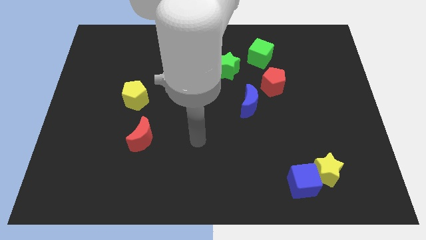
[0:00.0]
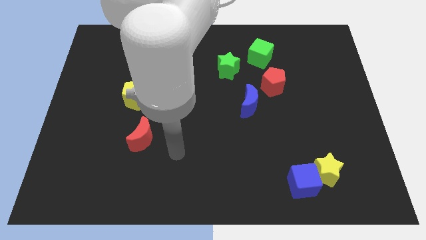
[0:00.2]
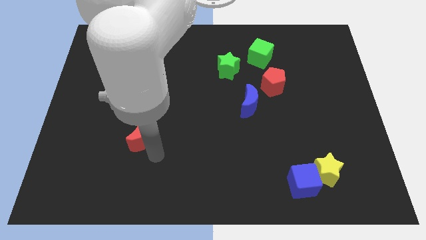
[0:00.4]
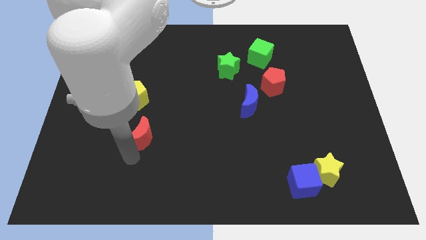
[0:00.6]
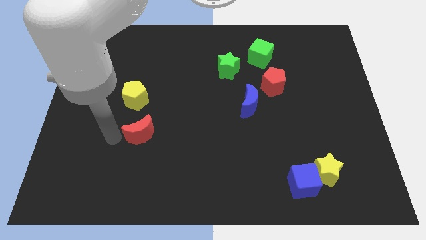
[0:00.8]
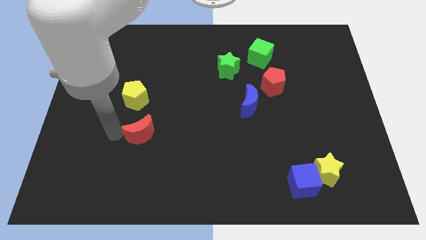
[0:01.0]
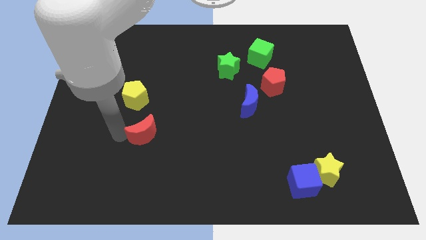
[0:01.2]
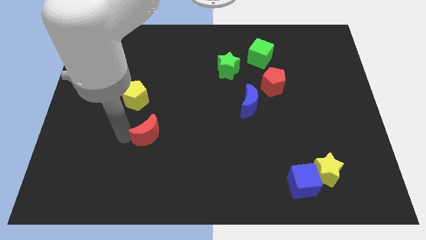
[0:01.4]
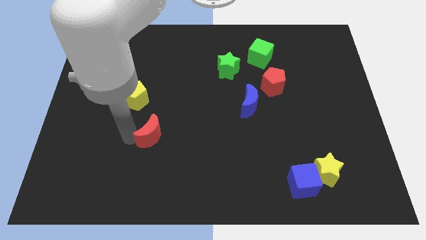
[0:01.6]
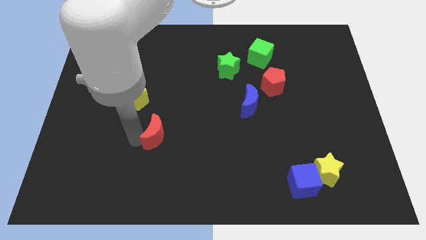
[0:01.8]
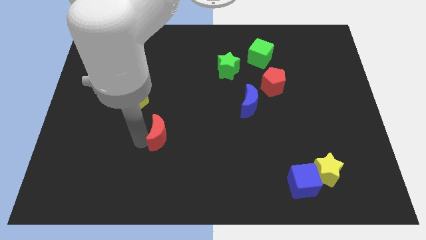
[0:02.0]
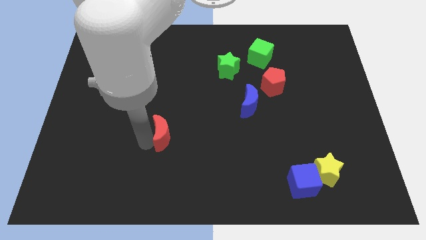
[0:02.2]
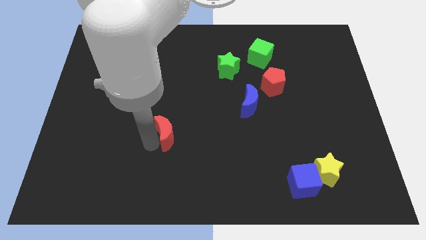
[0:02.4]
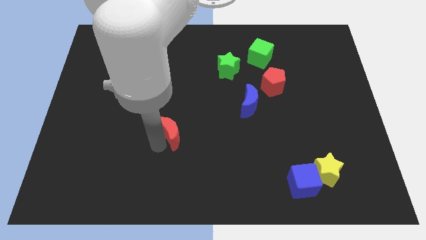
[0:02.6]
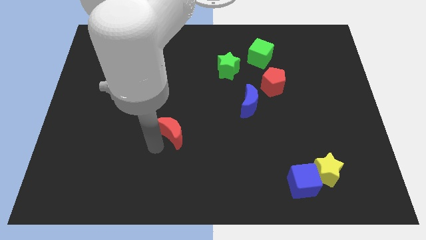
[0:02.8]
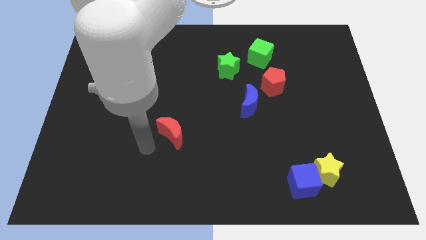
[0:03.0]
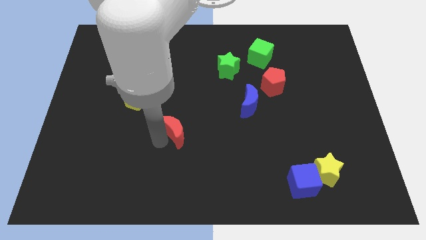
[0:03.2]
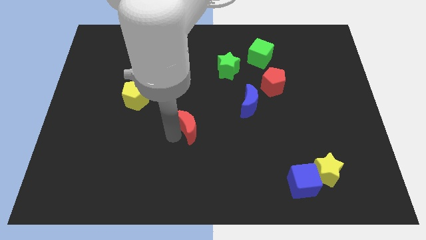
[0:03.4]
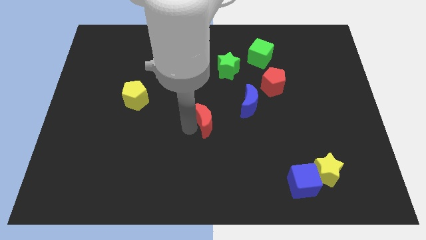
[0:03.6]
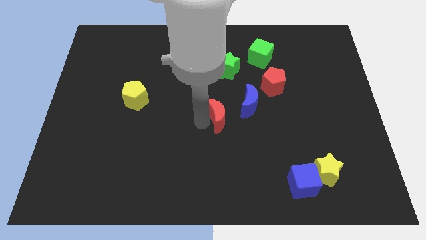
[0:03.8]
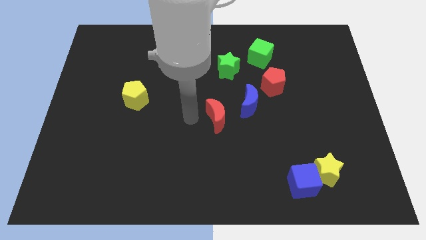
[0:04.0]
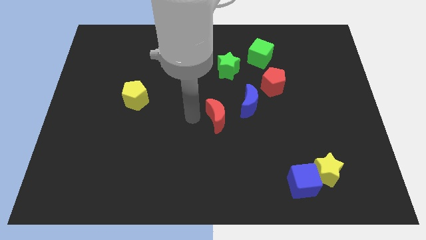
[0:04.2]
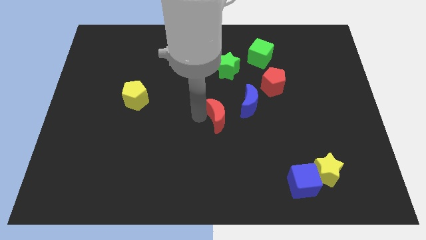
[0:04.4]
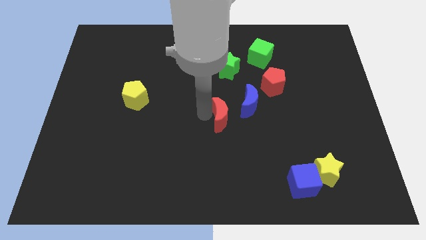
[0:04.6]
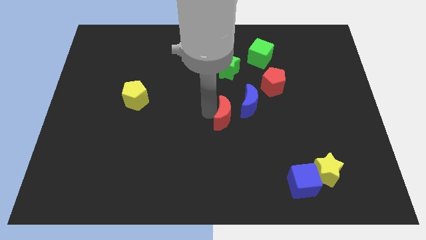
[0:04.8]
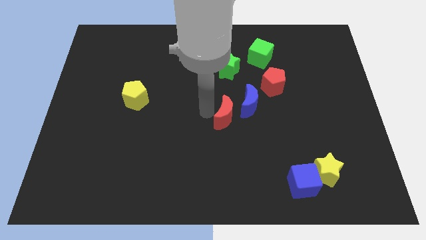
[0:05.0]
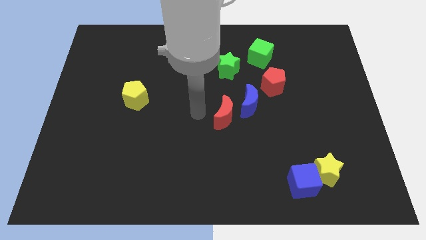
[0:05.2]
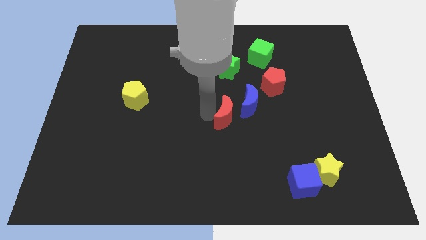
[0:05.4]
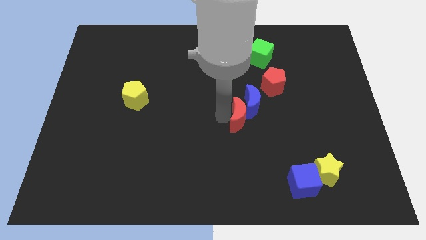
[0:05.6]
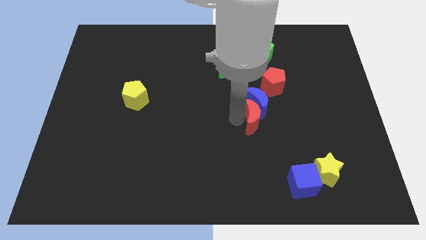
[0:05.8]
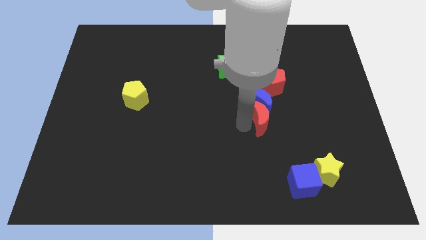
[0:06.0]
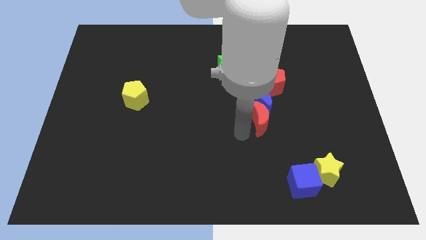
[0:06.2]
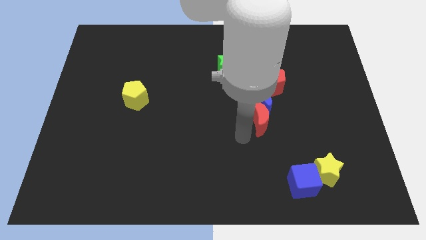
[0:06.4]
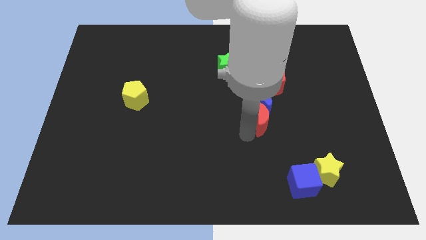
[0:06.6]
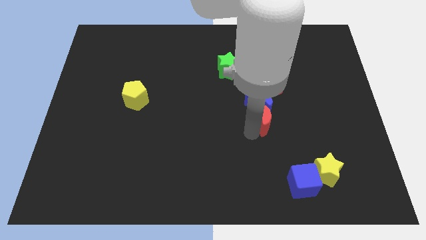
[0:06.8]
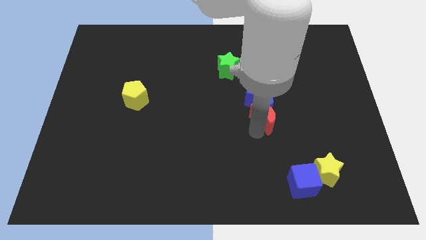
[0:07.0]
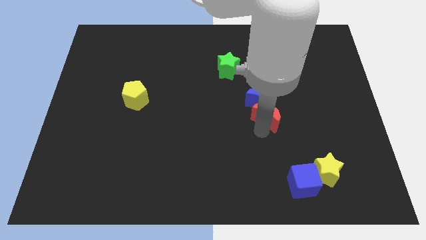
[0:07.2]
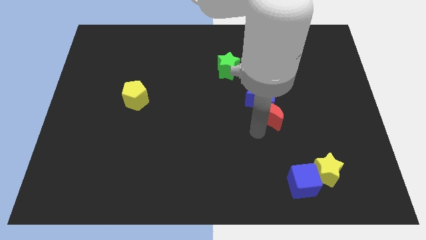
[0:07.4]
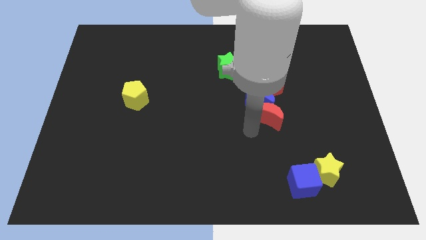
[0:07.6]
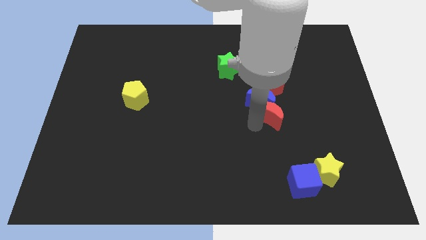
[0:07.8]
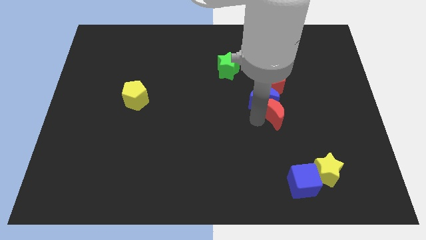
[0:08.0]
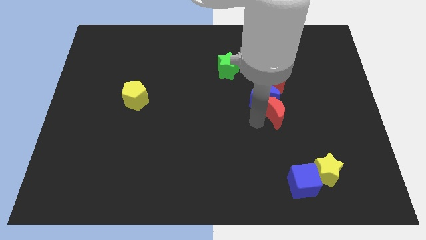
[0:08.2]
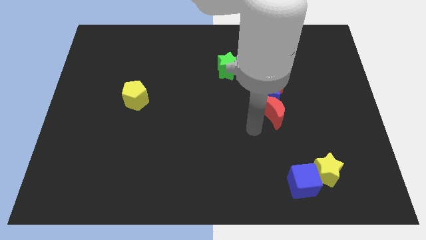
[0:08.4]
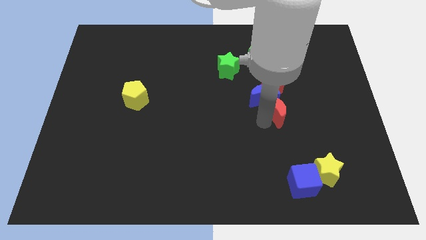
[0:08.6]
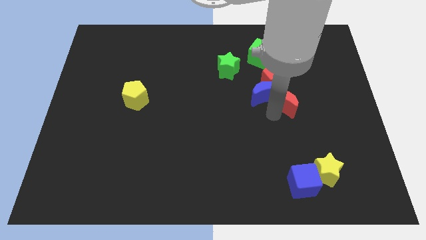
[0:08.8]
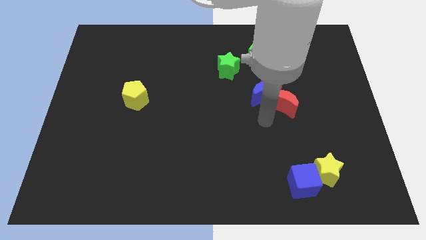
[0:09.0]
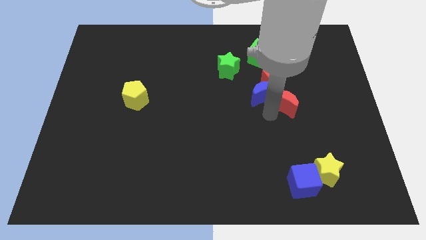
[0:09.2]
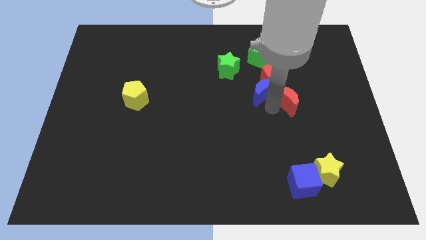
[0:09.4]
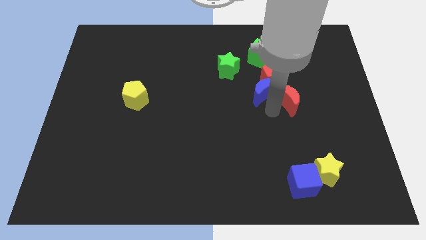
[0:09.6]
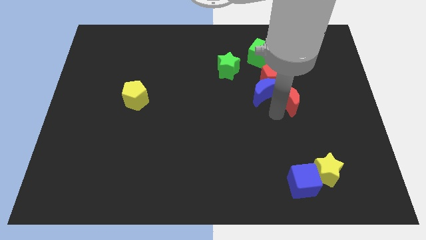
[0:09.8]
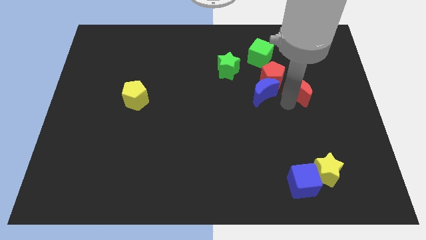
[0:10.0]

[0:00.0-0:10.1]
put the red moon to the right side of the red pentagon

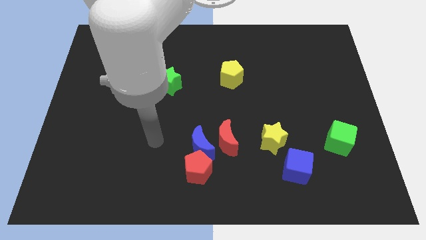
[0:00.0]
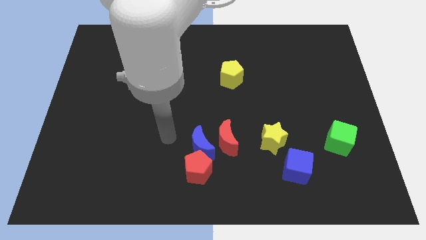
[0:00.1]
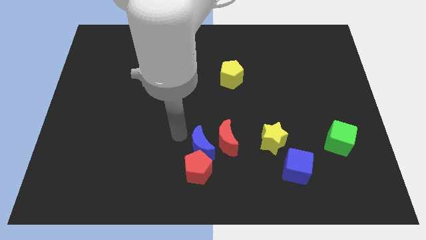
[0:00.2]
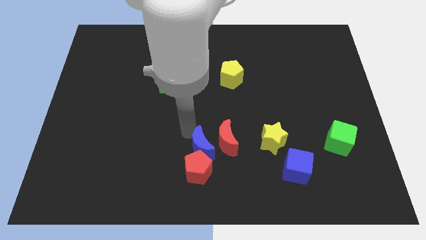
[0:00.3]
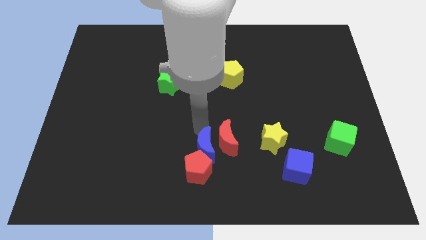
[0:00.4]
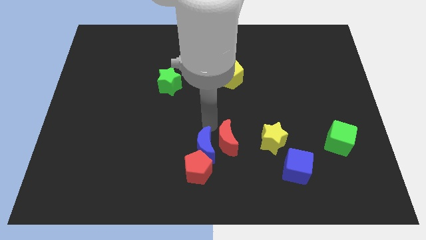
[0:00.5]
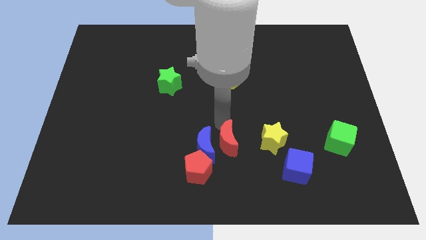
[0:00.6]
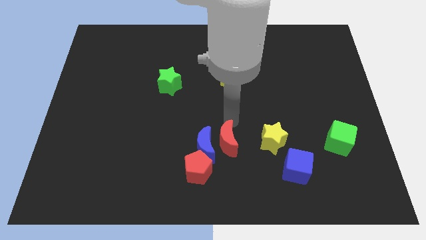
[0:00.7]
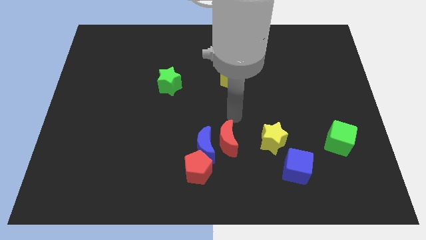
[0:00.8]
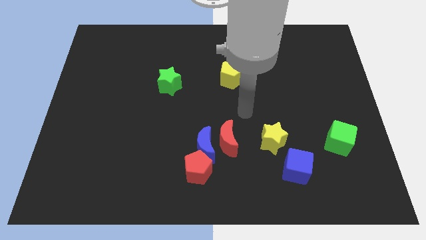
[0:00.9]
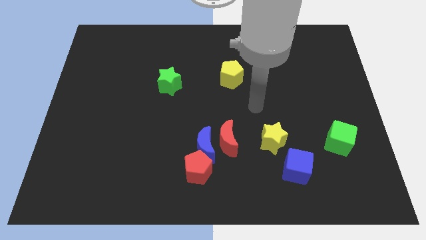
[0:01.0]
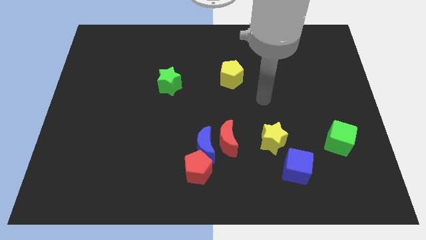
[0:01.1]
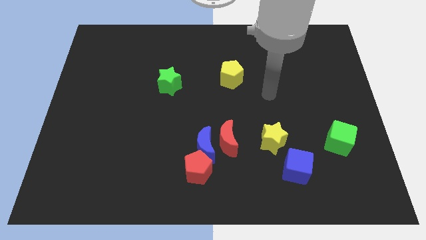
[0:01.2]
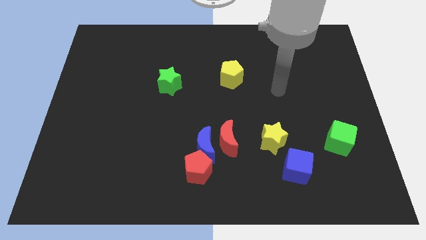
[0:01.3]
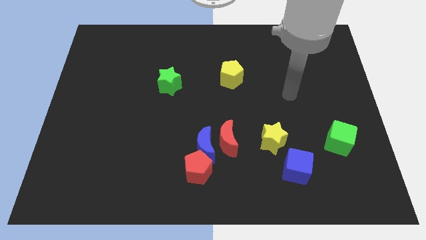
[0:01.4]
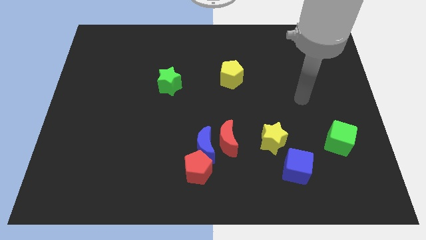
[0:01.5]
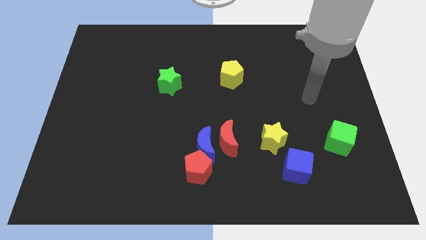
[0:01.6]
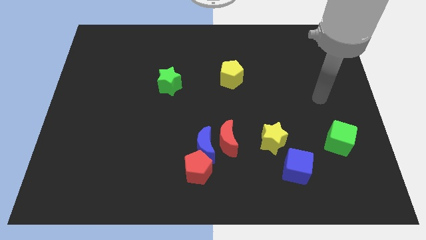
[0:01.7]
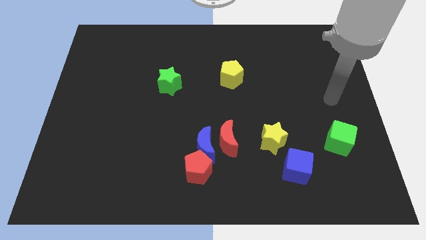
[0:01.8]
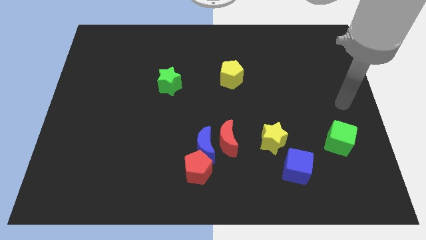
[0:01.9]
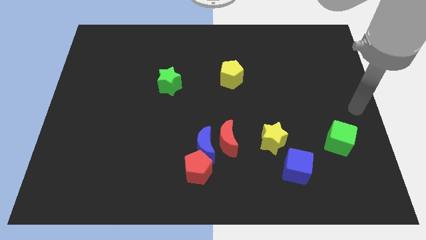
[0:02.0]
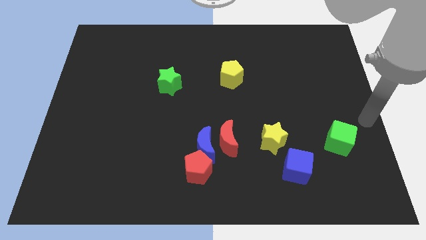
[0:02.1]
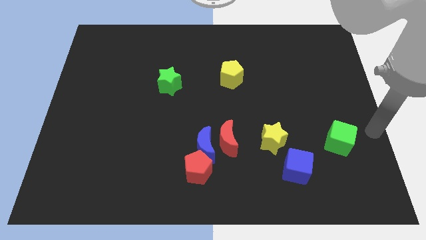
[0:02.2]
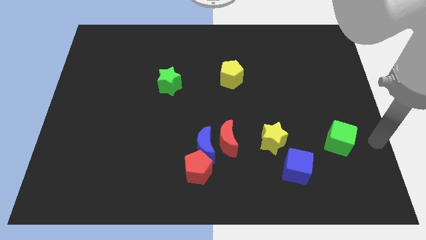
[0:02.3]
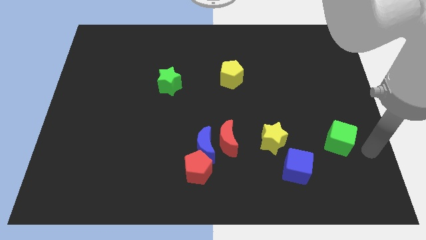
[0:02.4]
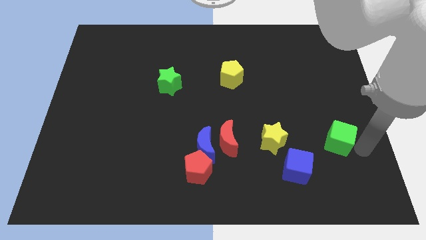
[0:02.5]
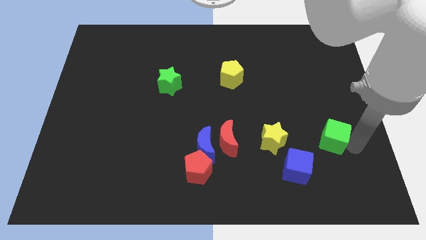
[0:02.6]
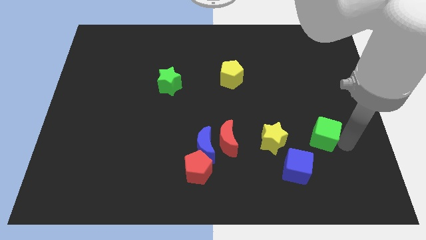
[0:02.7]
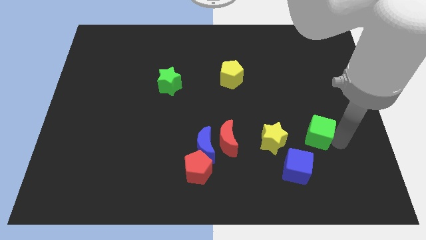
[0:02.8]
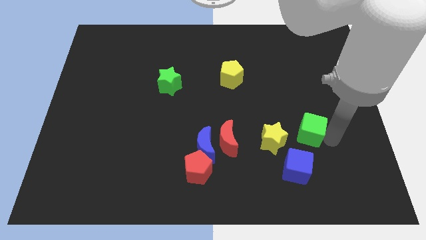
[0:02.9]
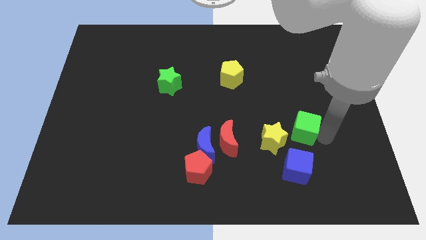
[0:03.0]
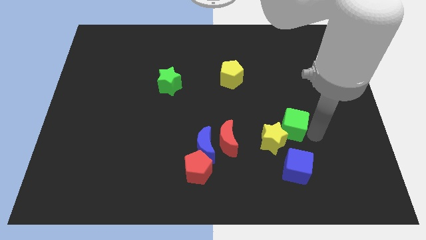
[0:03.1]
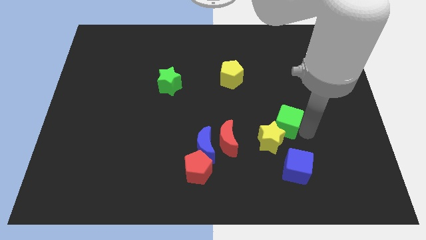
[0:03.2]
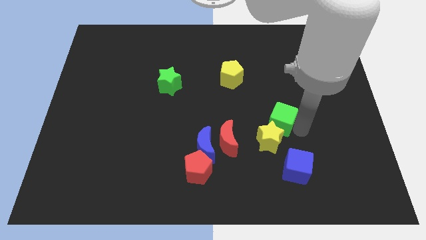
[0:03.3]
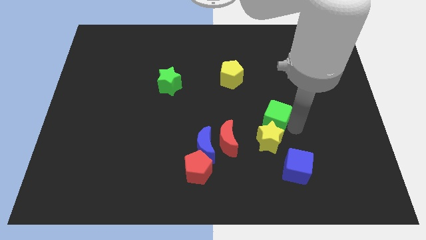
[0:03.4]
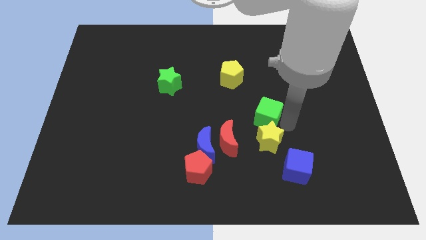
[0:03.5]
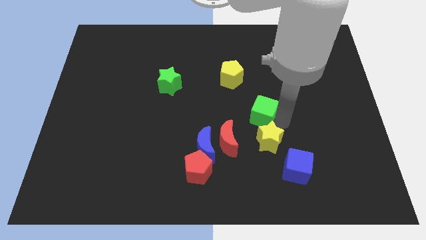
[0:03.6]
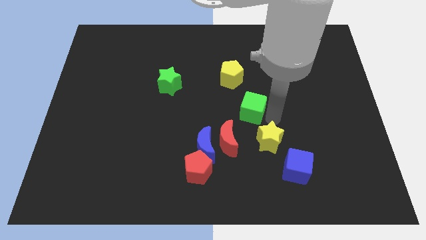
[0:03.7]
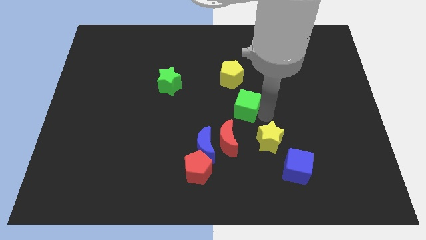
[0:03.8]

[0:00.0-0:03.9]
push the green cube above the red moon
